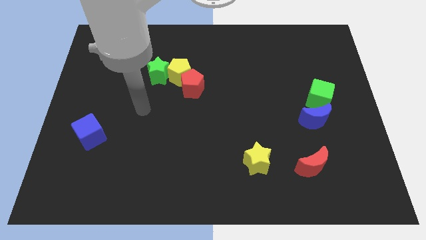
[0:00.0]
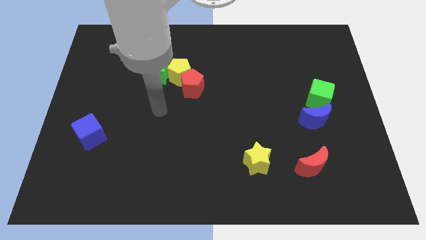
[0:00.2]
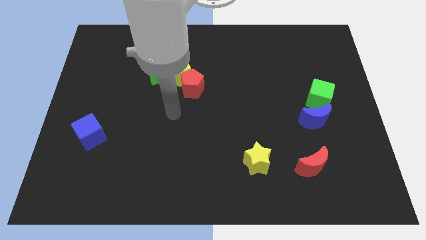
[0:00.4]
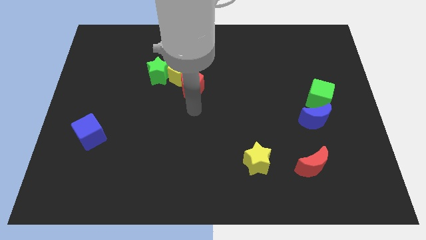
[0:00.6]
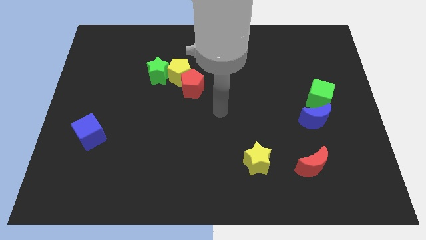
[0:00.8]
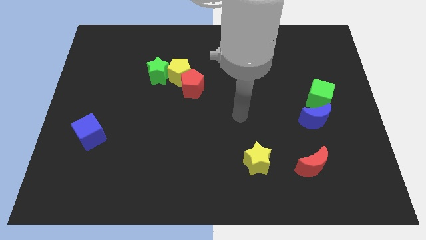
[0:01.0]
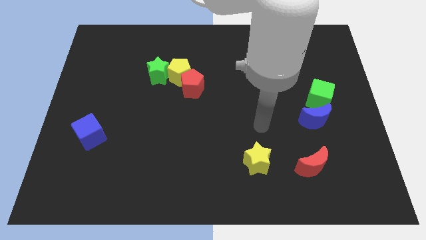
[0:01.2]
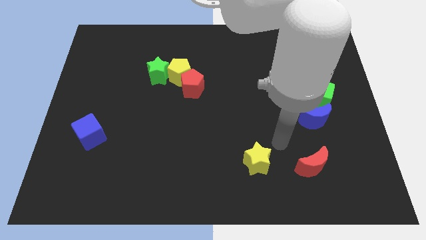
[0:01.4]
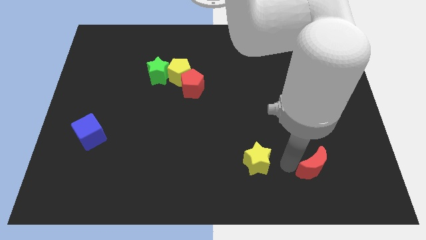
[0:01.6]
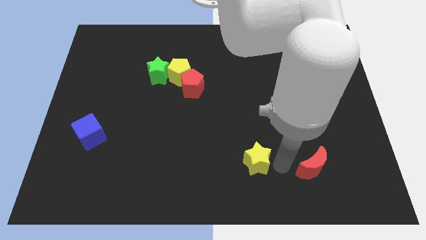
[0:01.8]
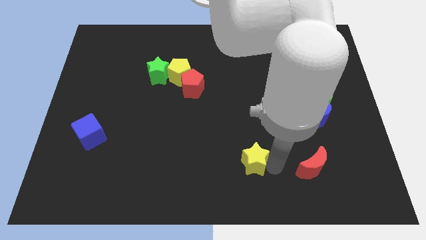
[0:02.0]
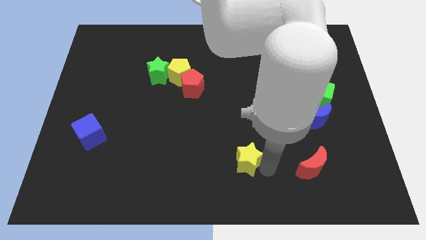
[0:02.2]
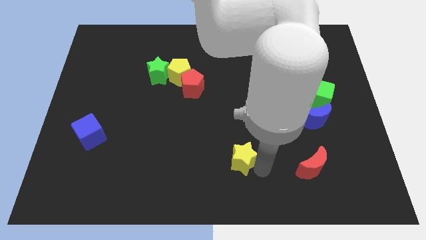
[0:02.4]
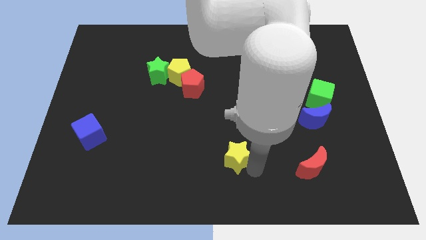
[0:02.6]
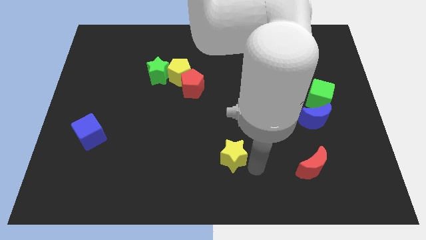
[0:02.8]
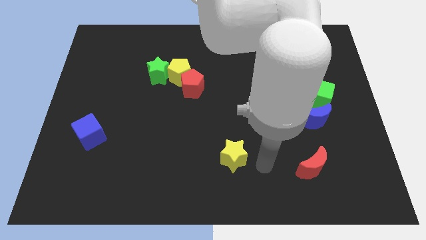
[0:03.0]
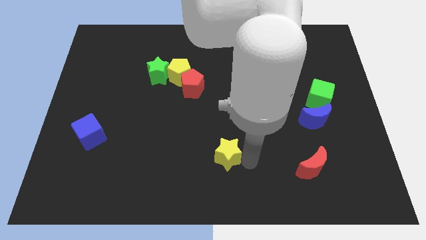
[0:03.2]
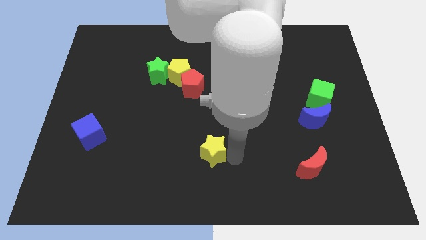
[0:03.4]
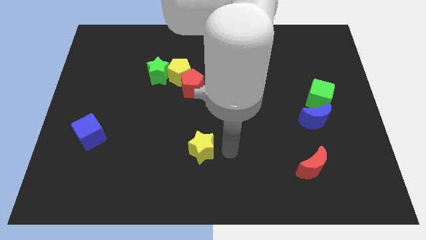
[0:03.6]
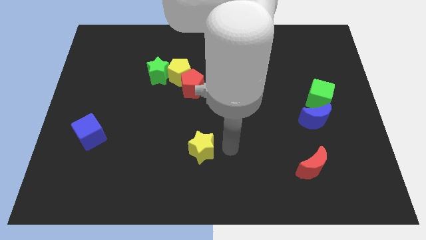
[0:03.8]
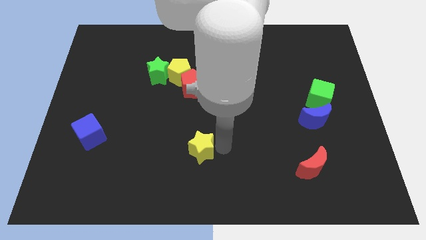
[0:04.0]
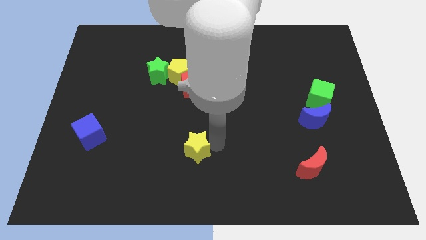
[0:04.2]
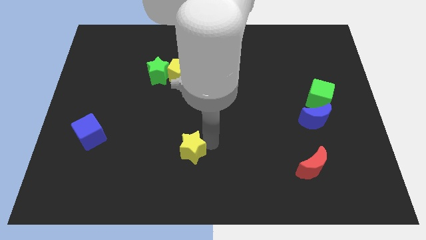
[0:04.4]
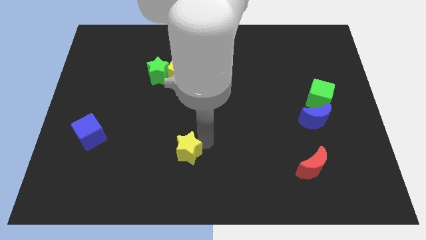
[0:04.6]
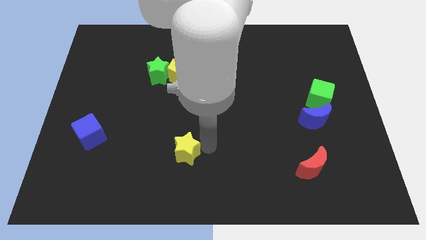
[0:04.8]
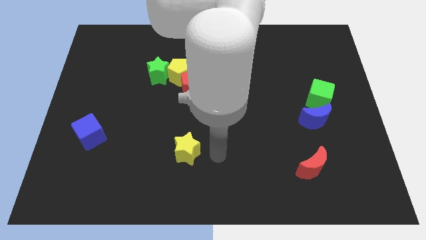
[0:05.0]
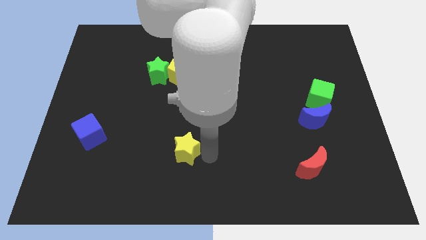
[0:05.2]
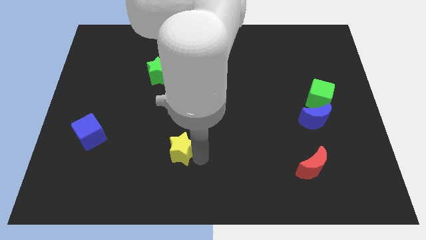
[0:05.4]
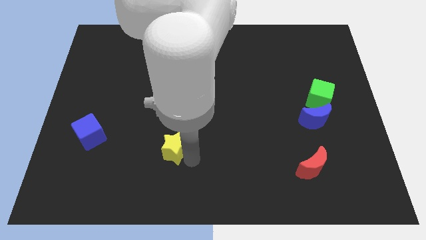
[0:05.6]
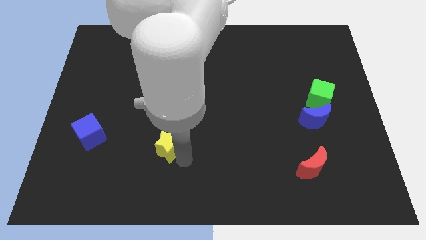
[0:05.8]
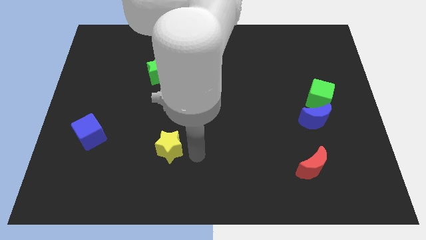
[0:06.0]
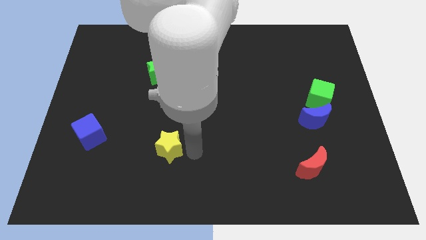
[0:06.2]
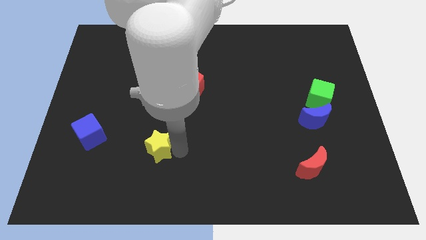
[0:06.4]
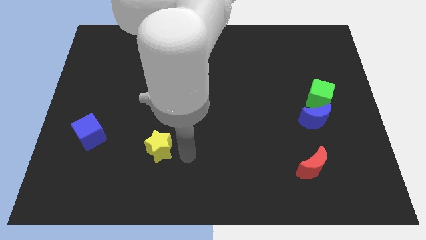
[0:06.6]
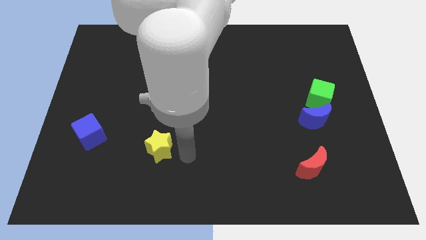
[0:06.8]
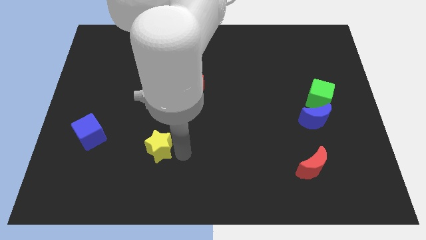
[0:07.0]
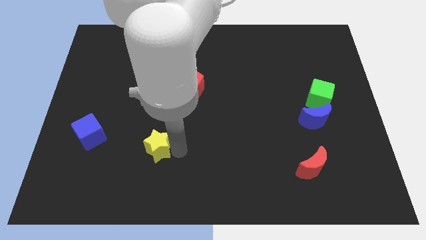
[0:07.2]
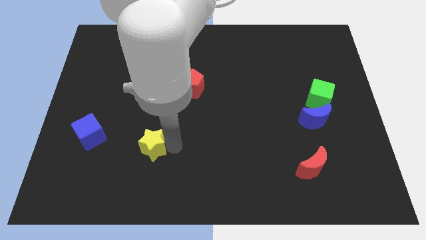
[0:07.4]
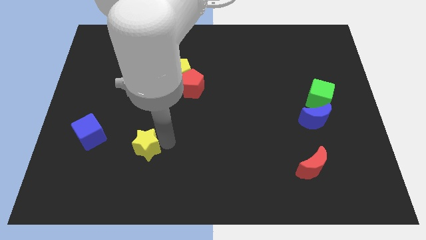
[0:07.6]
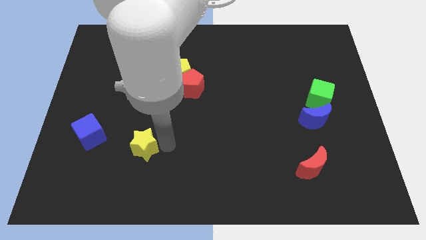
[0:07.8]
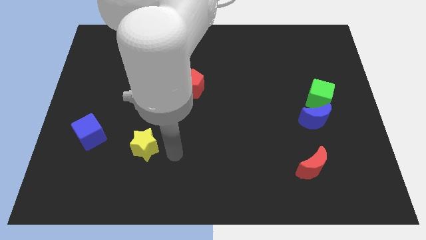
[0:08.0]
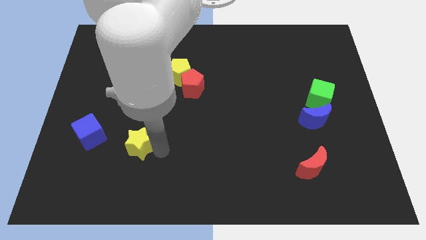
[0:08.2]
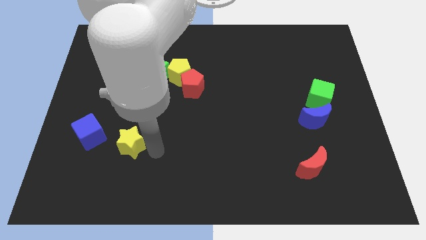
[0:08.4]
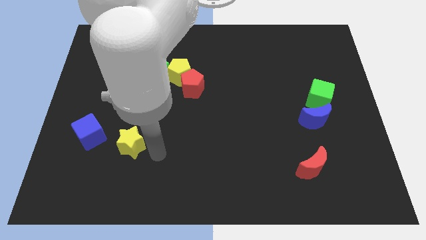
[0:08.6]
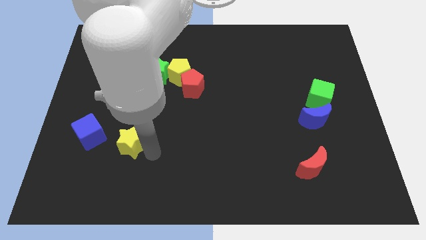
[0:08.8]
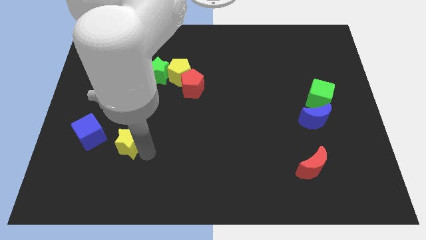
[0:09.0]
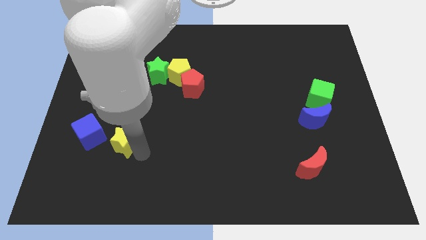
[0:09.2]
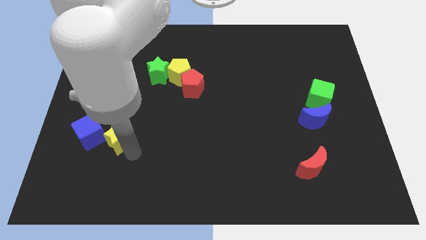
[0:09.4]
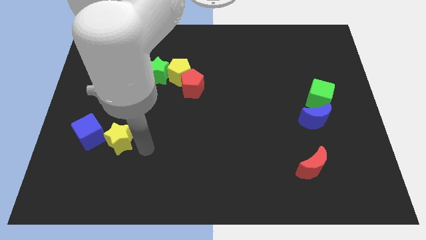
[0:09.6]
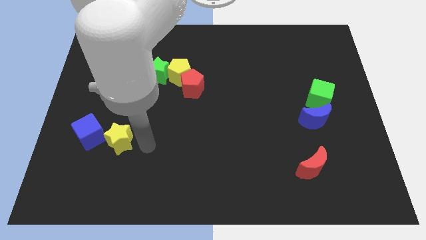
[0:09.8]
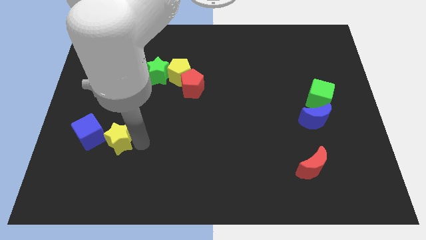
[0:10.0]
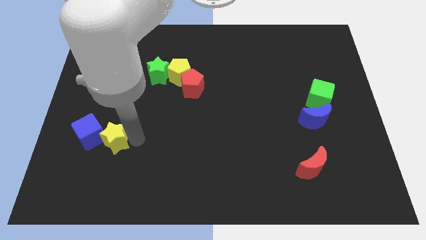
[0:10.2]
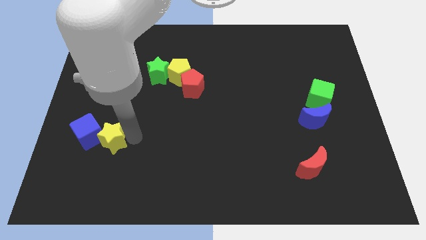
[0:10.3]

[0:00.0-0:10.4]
put the yellow star to the blue cube

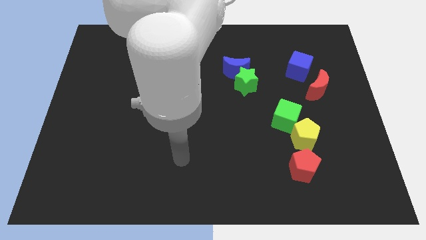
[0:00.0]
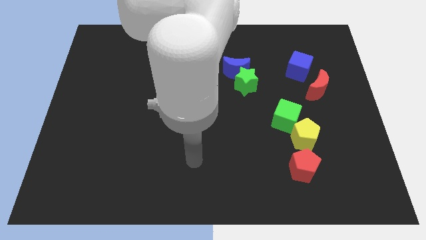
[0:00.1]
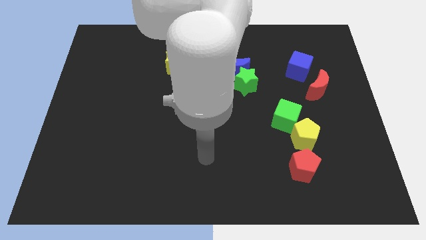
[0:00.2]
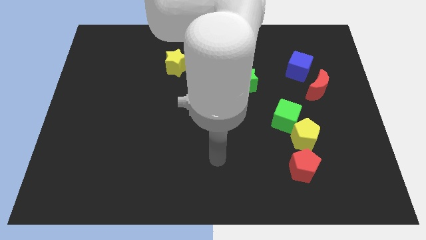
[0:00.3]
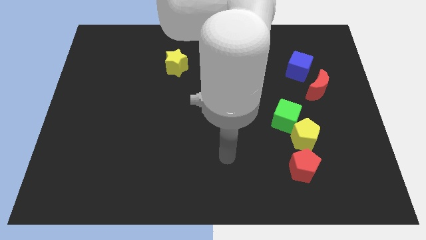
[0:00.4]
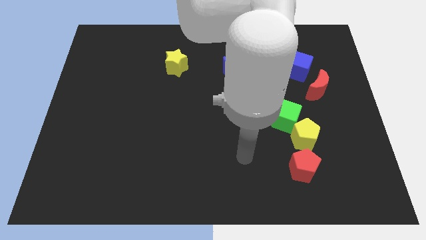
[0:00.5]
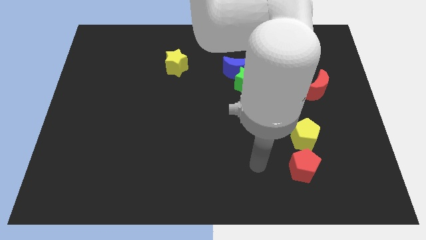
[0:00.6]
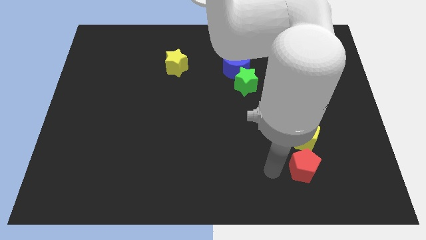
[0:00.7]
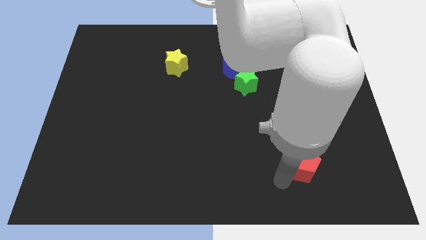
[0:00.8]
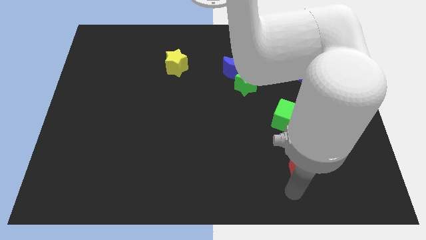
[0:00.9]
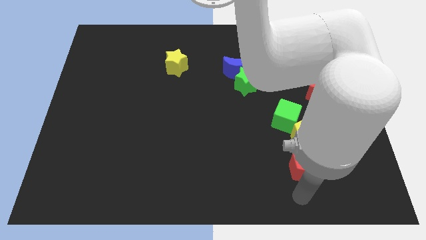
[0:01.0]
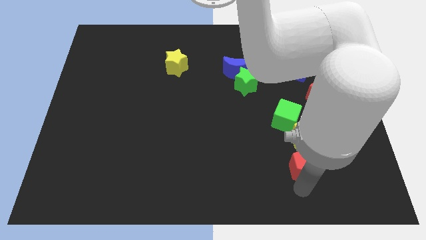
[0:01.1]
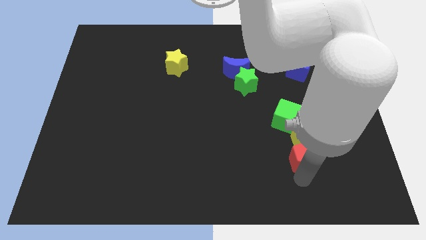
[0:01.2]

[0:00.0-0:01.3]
slide the red pentagon to the yellow pentagon

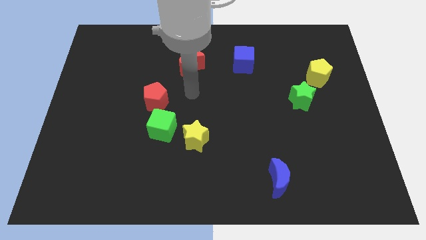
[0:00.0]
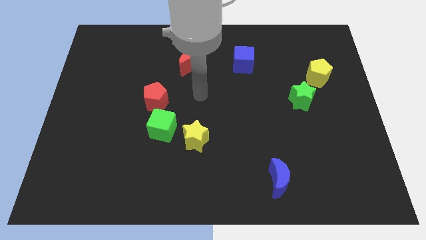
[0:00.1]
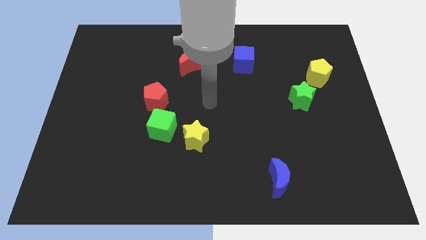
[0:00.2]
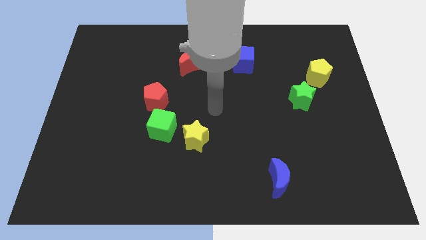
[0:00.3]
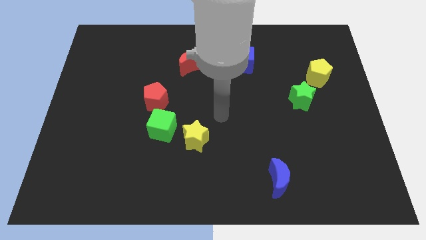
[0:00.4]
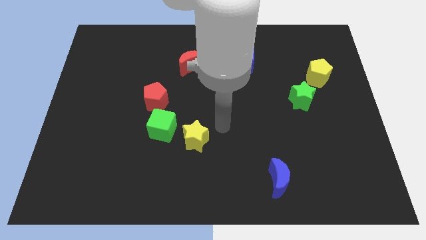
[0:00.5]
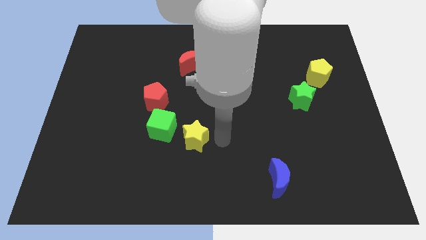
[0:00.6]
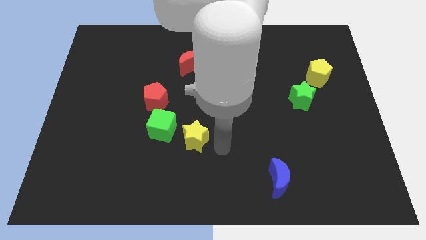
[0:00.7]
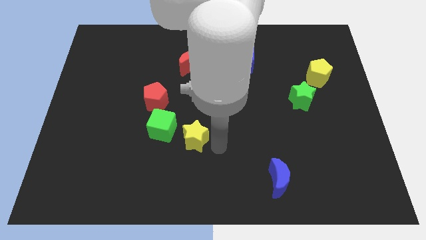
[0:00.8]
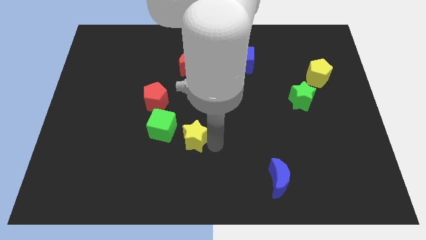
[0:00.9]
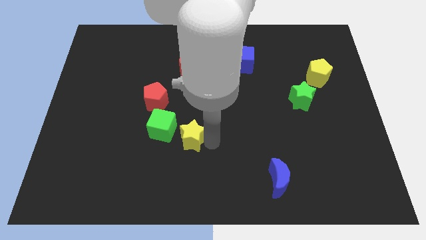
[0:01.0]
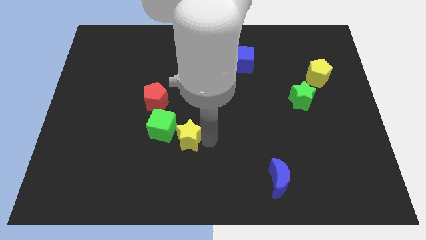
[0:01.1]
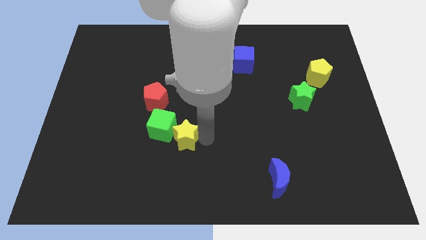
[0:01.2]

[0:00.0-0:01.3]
push the yellow star next to the green cube
